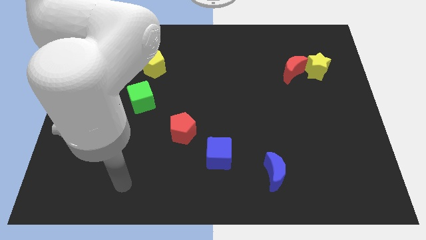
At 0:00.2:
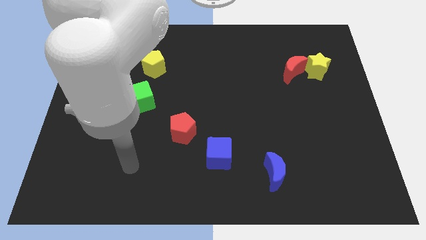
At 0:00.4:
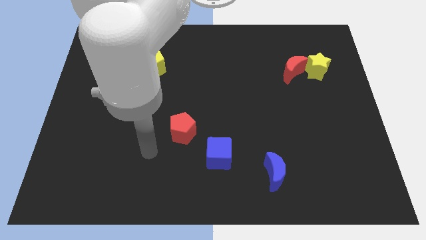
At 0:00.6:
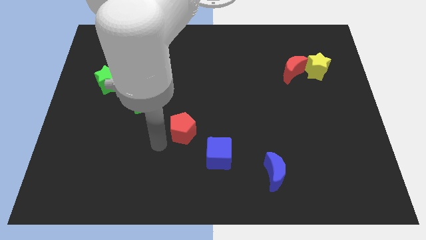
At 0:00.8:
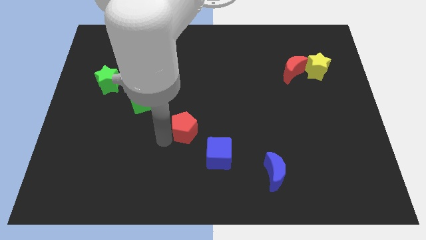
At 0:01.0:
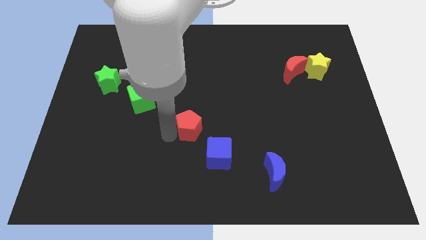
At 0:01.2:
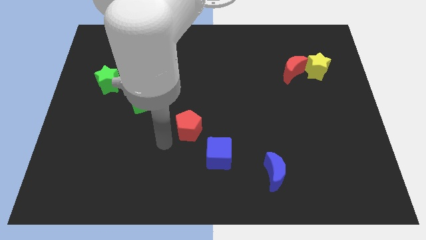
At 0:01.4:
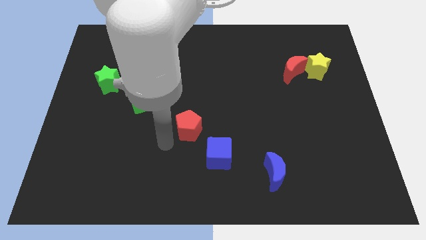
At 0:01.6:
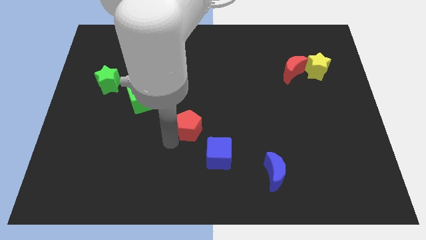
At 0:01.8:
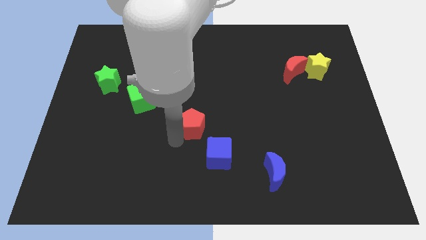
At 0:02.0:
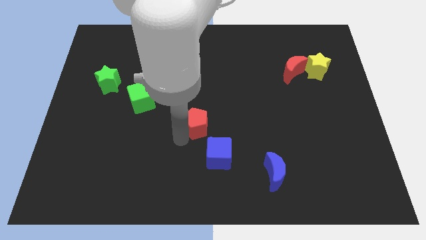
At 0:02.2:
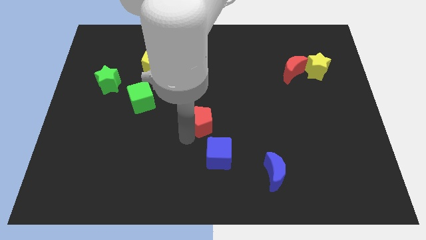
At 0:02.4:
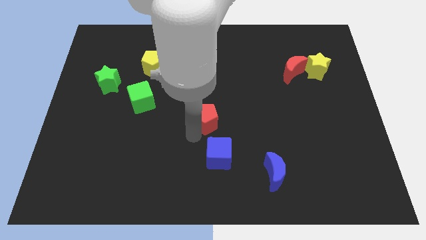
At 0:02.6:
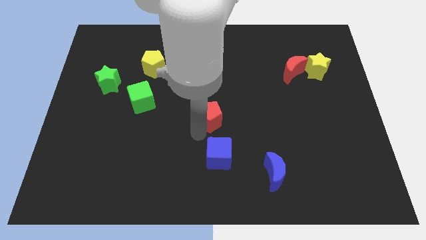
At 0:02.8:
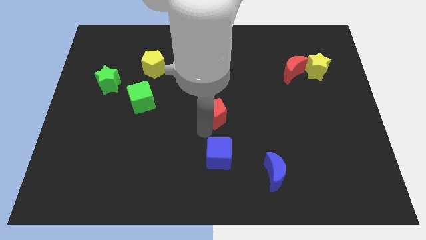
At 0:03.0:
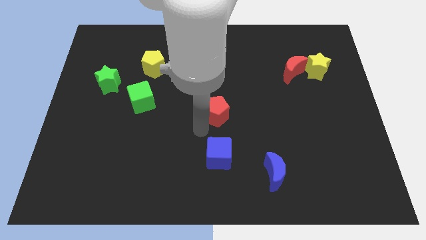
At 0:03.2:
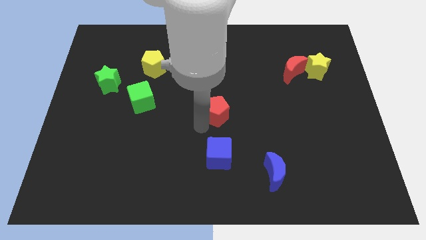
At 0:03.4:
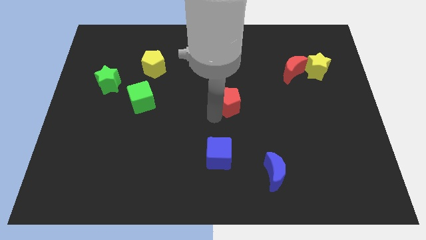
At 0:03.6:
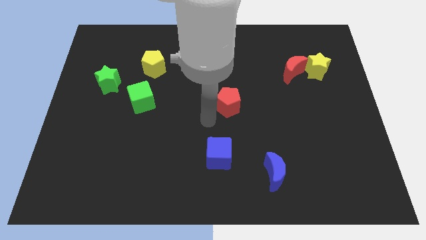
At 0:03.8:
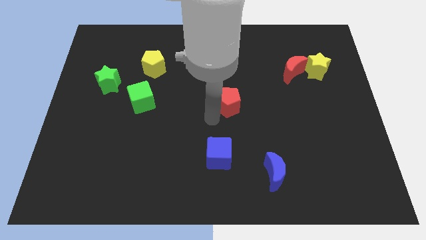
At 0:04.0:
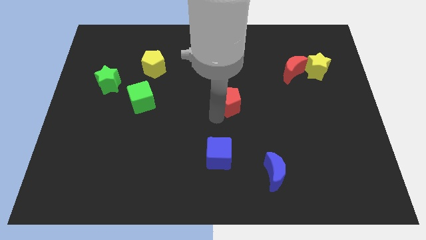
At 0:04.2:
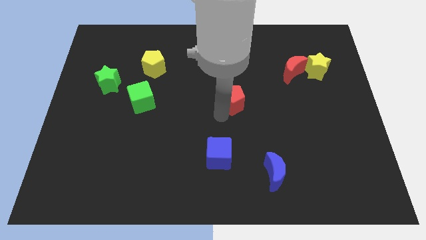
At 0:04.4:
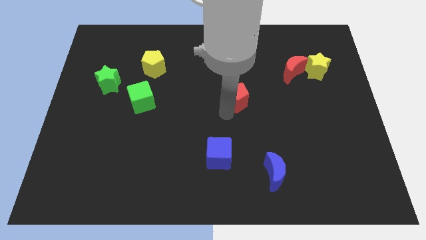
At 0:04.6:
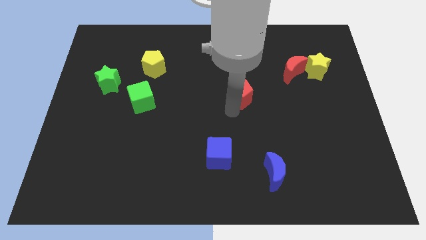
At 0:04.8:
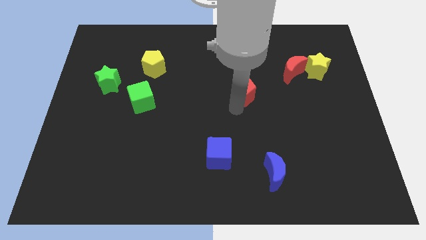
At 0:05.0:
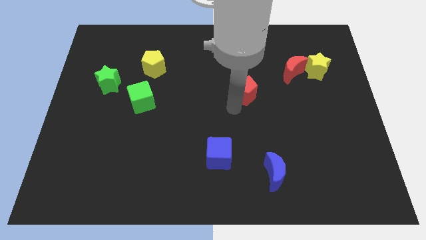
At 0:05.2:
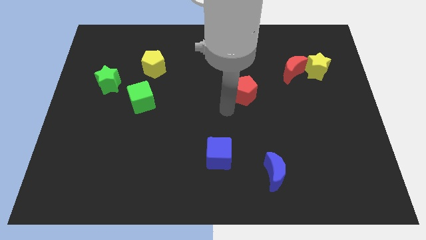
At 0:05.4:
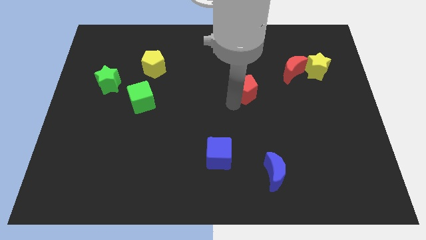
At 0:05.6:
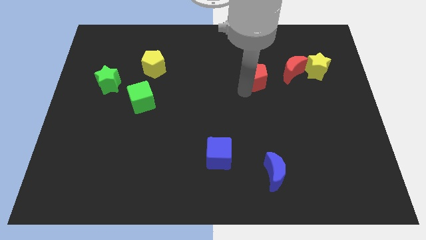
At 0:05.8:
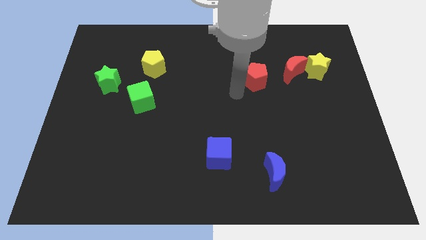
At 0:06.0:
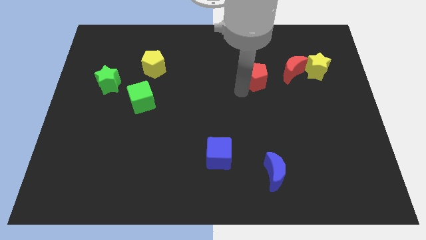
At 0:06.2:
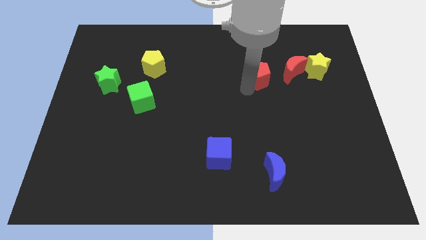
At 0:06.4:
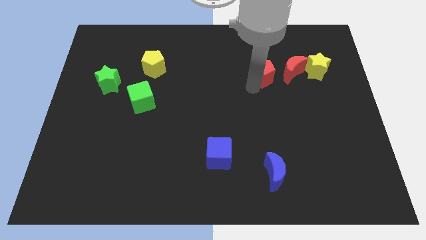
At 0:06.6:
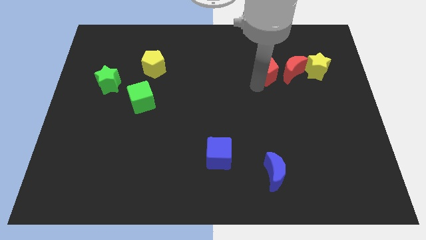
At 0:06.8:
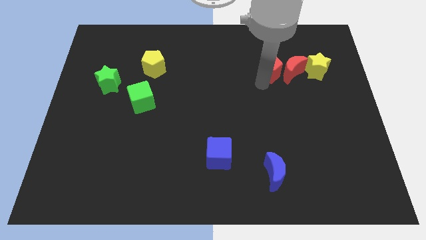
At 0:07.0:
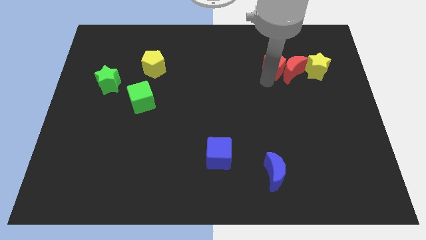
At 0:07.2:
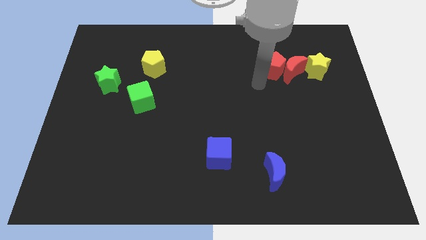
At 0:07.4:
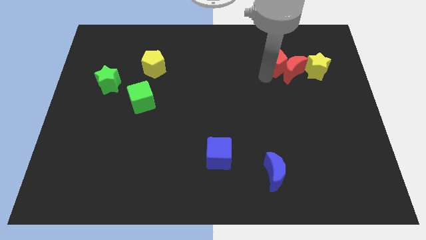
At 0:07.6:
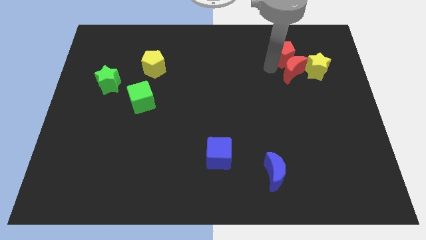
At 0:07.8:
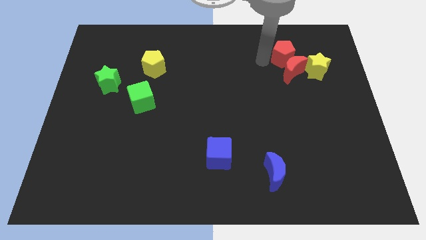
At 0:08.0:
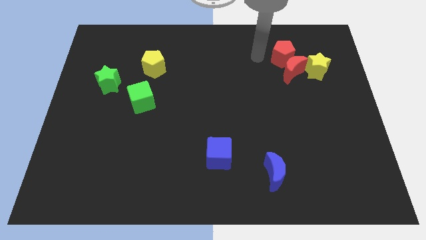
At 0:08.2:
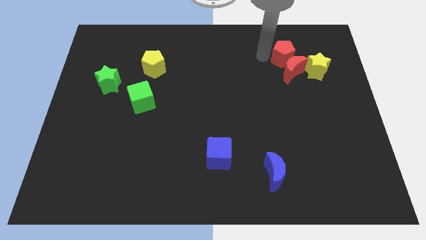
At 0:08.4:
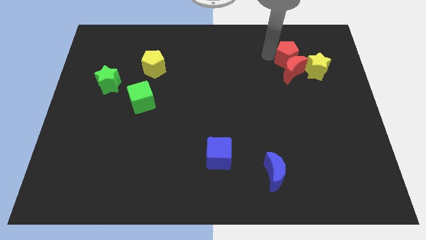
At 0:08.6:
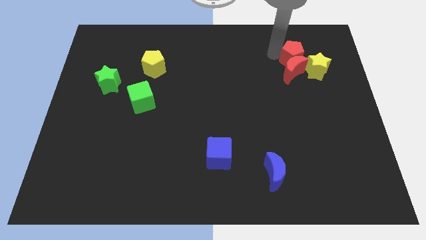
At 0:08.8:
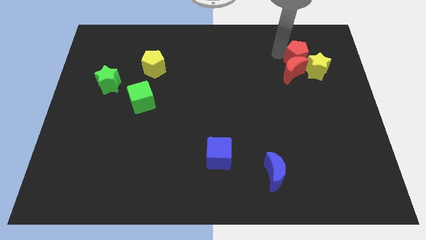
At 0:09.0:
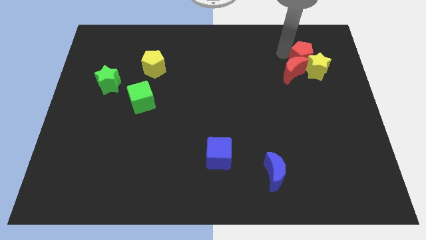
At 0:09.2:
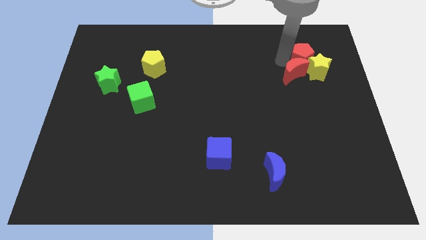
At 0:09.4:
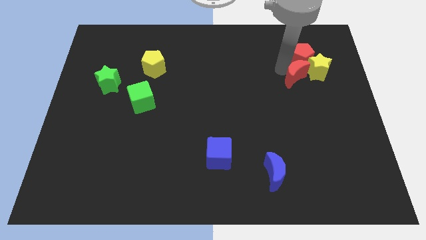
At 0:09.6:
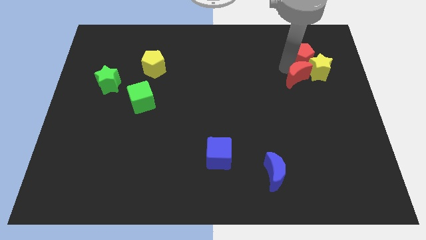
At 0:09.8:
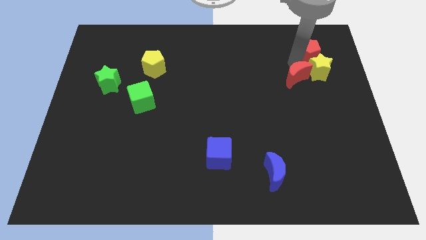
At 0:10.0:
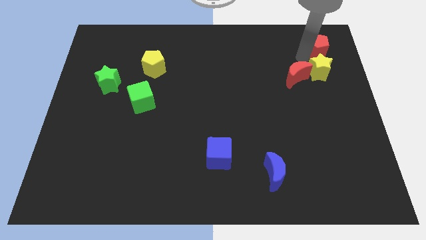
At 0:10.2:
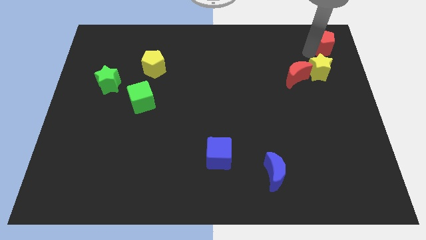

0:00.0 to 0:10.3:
push the red pentagon to the top right corner
